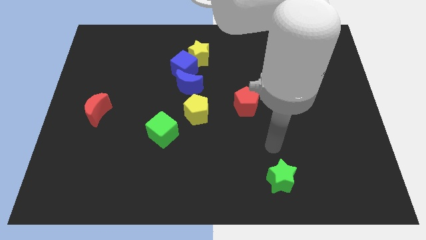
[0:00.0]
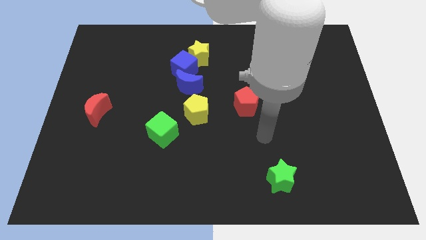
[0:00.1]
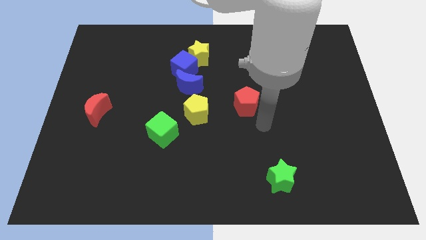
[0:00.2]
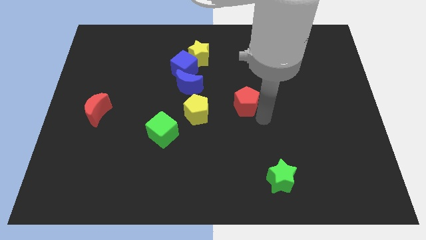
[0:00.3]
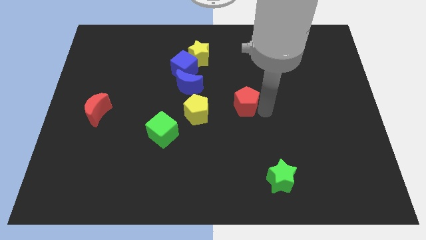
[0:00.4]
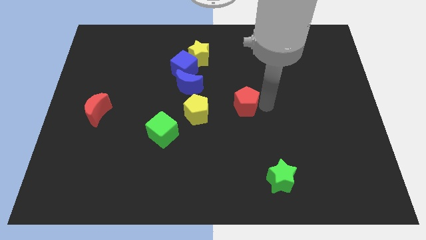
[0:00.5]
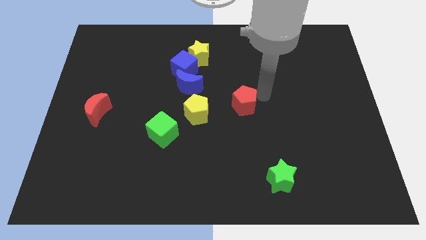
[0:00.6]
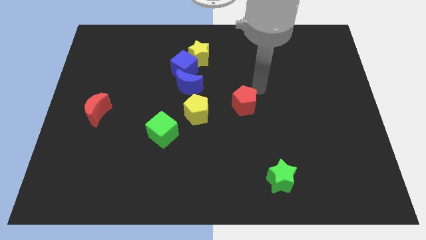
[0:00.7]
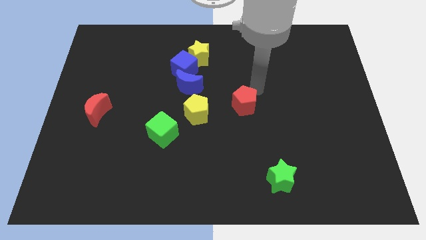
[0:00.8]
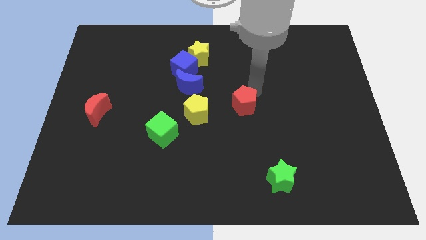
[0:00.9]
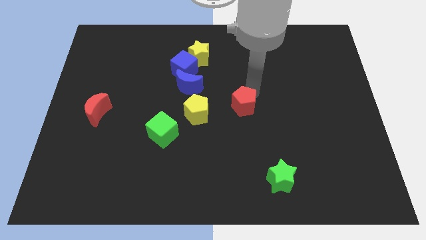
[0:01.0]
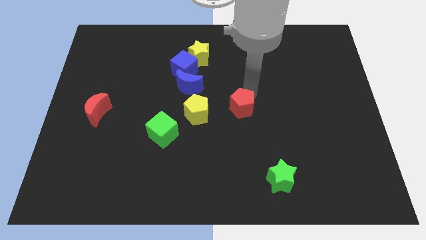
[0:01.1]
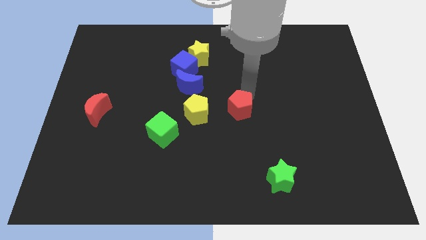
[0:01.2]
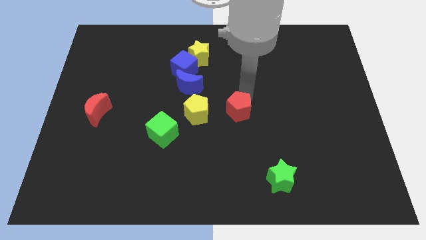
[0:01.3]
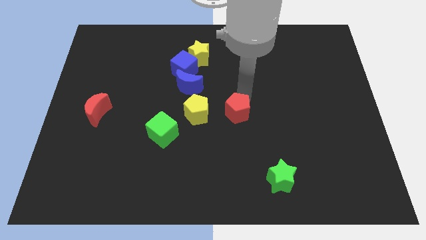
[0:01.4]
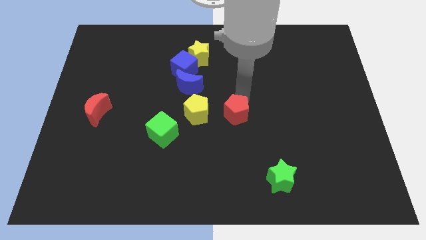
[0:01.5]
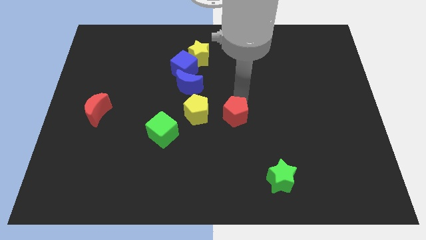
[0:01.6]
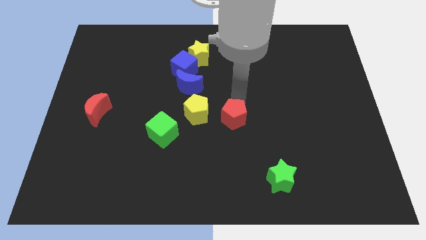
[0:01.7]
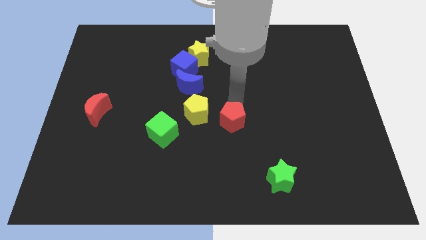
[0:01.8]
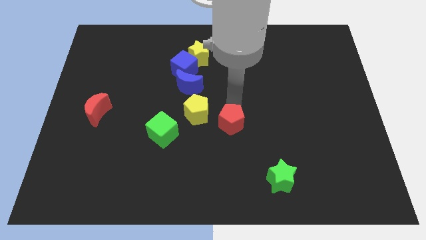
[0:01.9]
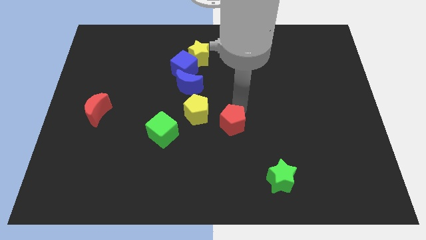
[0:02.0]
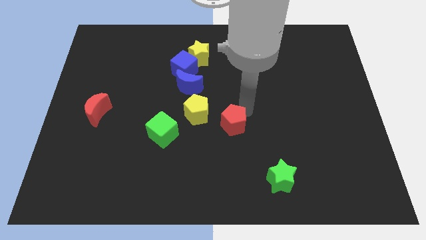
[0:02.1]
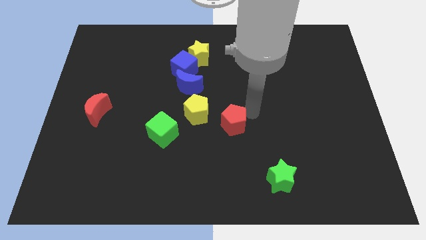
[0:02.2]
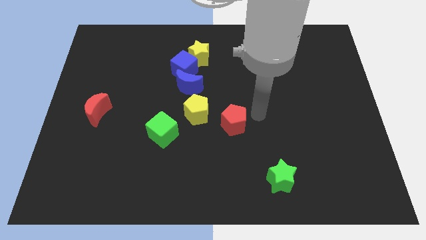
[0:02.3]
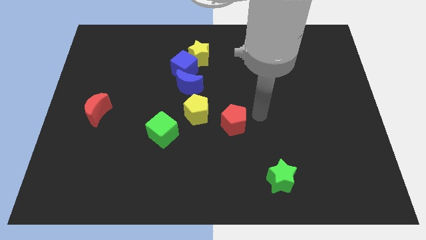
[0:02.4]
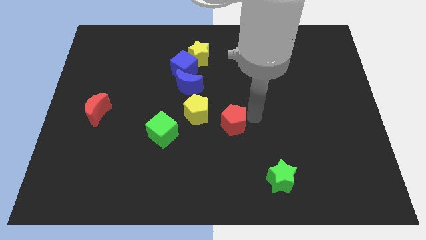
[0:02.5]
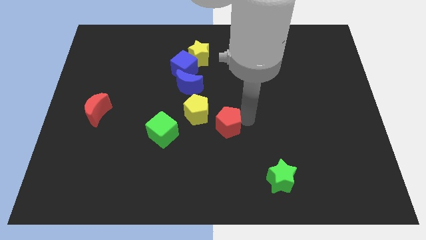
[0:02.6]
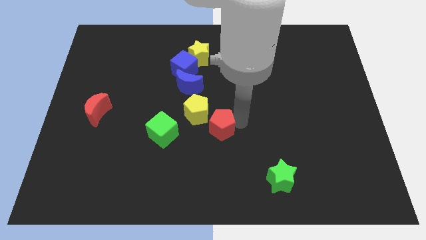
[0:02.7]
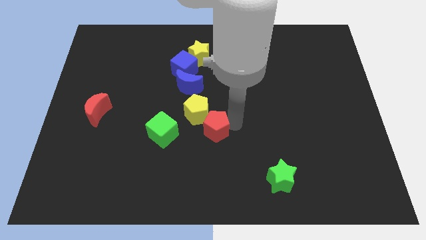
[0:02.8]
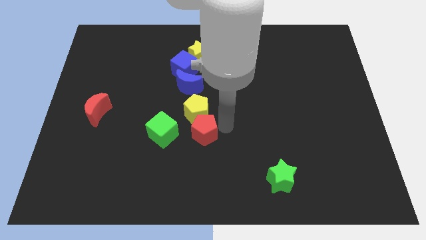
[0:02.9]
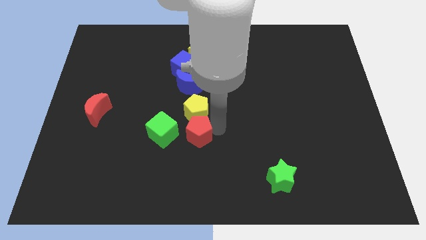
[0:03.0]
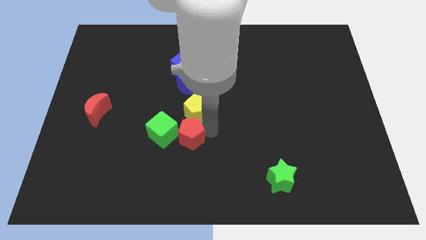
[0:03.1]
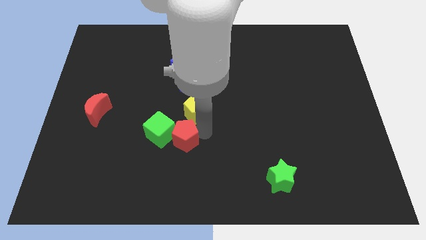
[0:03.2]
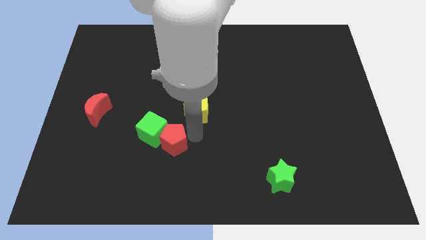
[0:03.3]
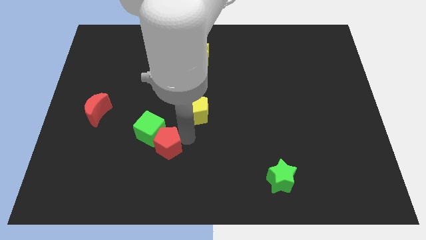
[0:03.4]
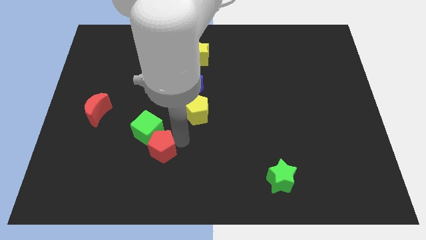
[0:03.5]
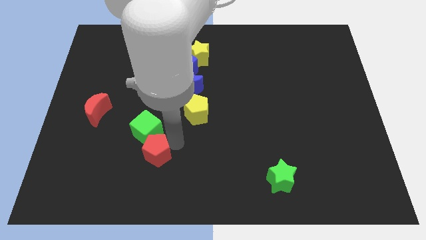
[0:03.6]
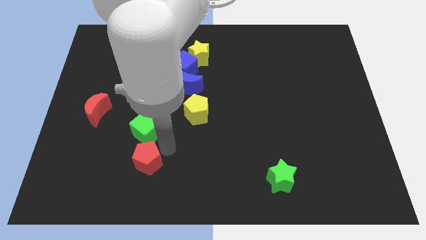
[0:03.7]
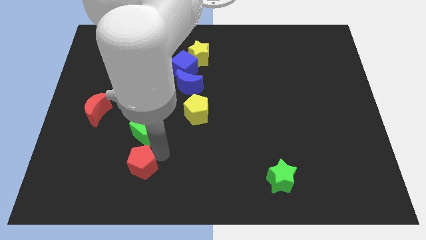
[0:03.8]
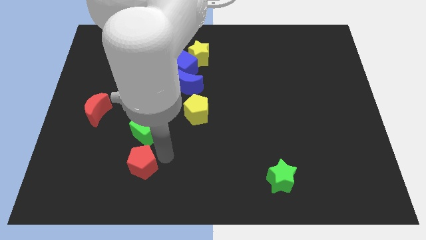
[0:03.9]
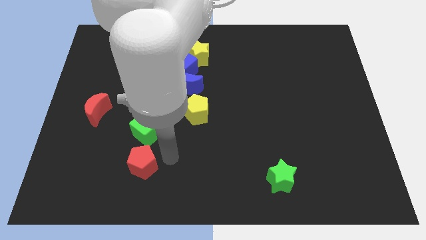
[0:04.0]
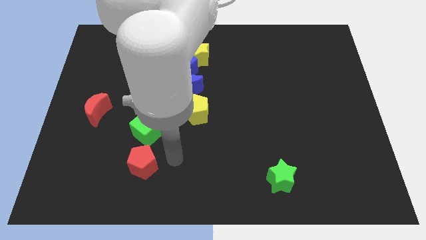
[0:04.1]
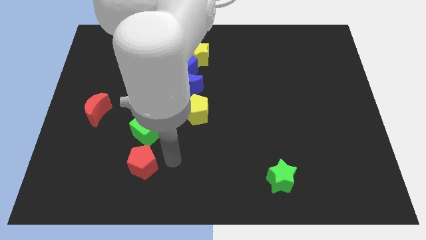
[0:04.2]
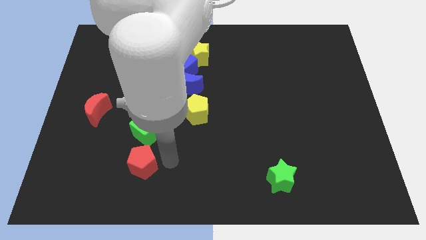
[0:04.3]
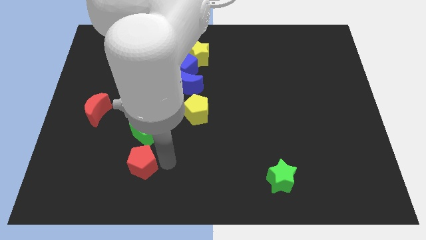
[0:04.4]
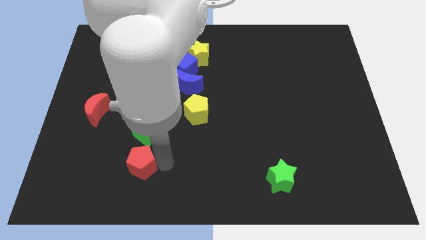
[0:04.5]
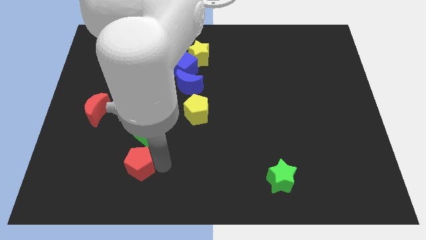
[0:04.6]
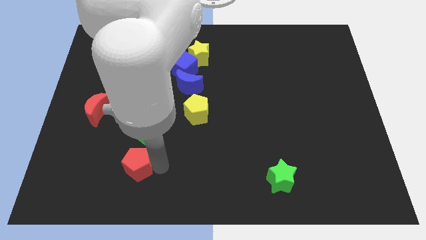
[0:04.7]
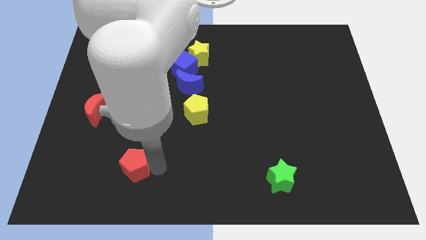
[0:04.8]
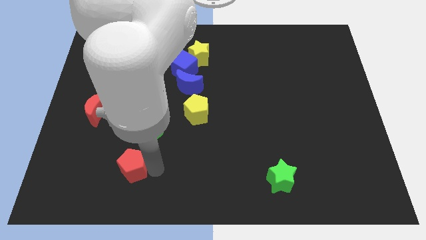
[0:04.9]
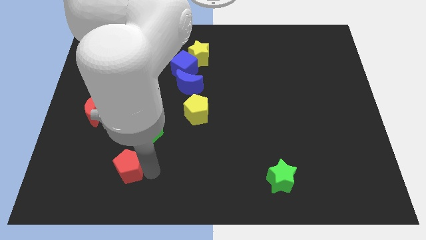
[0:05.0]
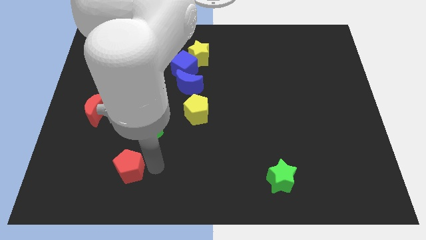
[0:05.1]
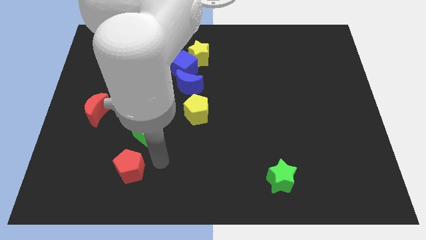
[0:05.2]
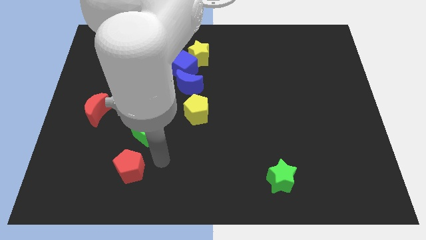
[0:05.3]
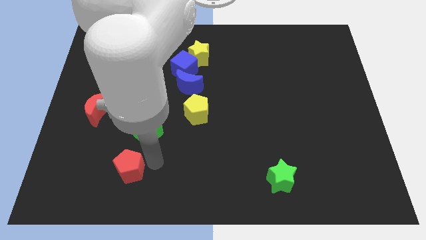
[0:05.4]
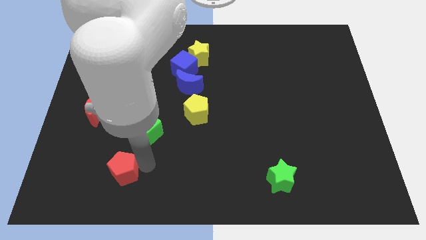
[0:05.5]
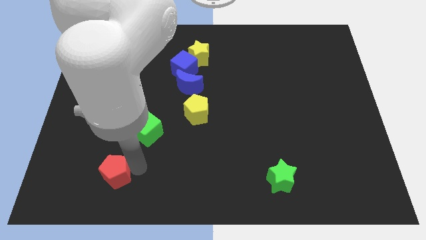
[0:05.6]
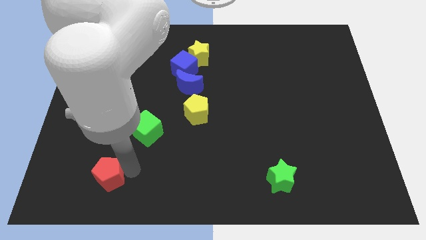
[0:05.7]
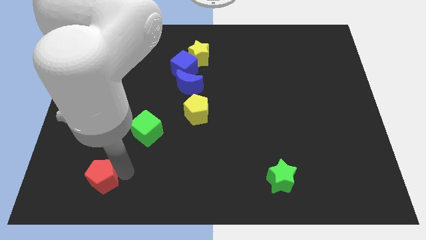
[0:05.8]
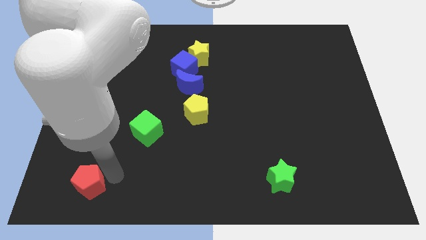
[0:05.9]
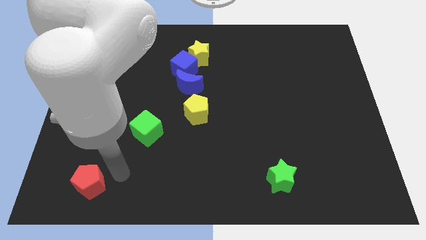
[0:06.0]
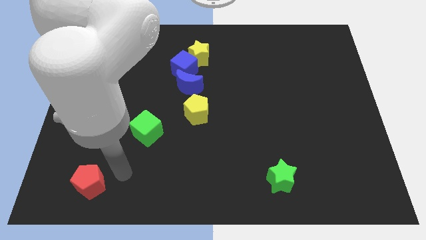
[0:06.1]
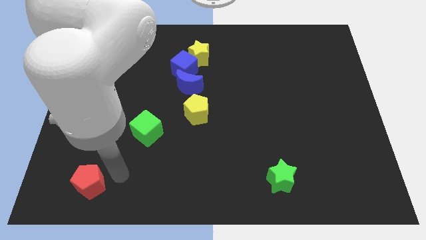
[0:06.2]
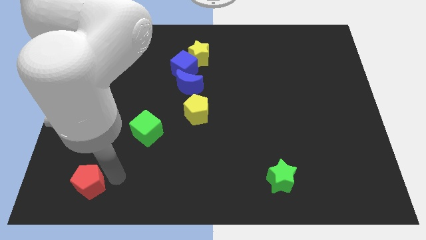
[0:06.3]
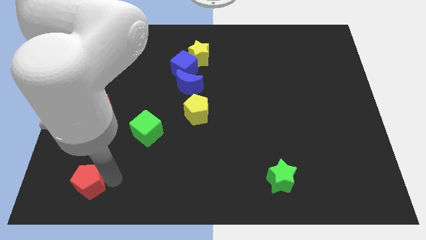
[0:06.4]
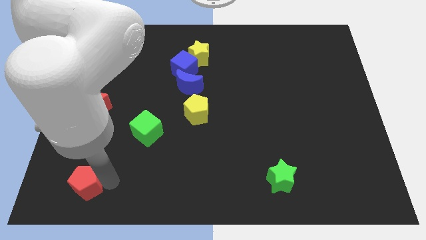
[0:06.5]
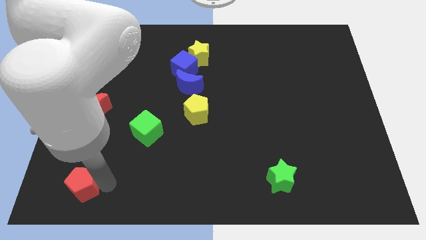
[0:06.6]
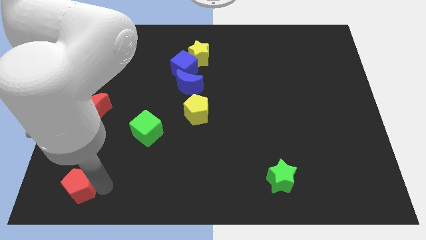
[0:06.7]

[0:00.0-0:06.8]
move the red pentagon to the bottom left of the board
